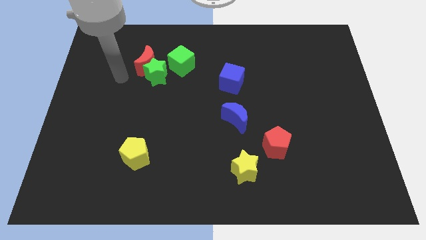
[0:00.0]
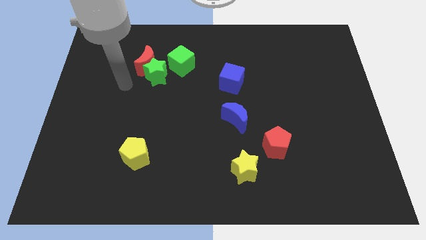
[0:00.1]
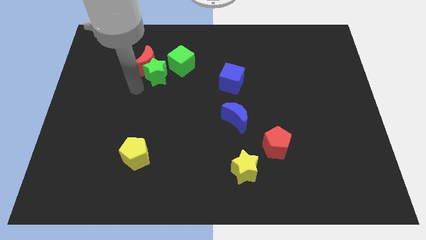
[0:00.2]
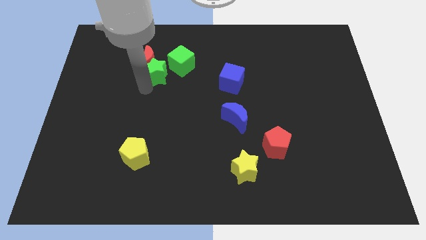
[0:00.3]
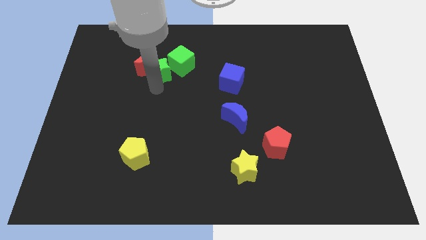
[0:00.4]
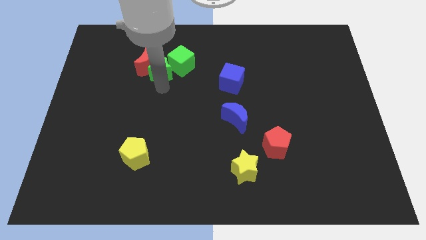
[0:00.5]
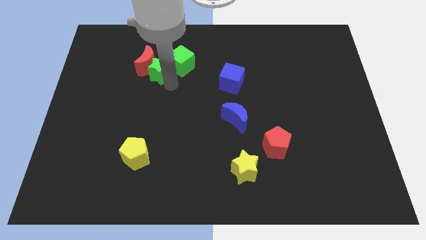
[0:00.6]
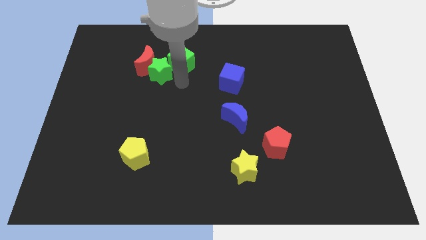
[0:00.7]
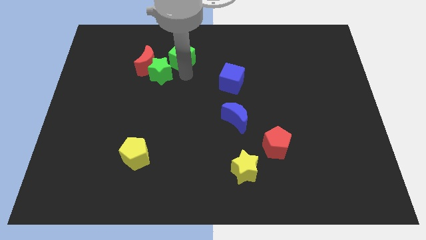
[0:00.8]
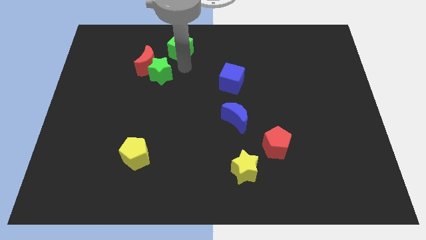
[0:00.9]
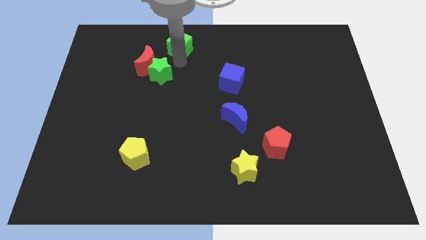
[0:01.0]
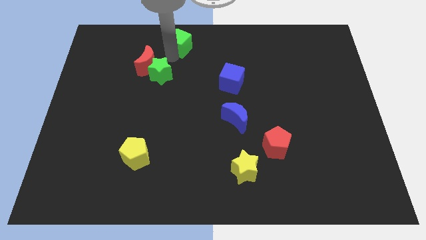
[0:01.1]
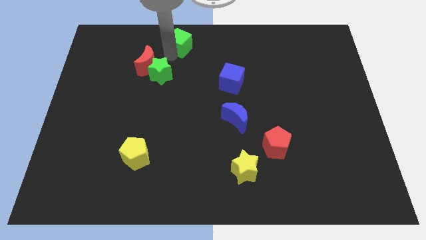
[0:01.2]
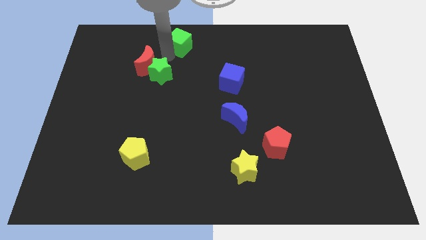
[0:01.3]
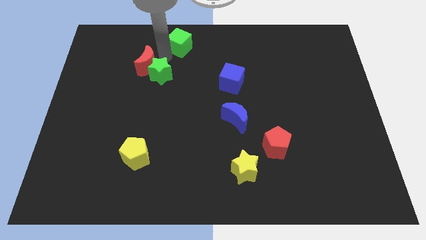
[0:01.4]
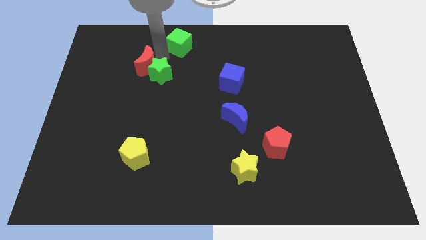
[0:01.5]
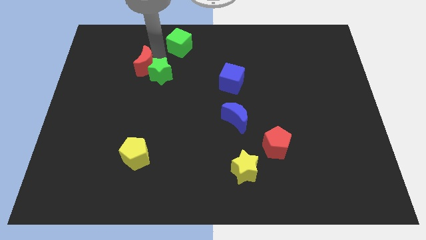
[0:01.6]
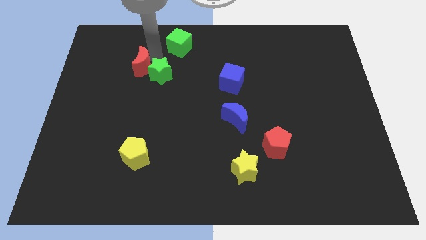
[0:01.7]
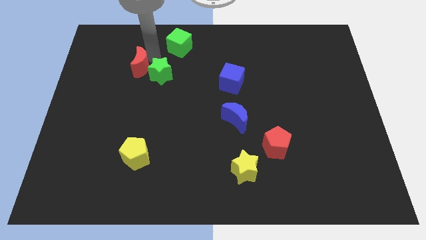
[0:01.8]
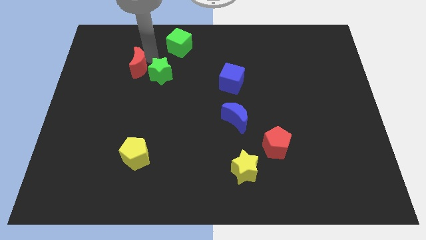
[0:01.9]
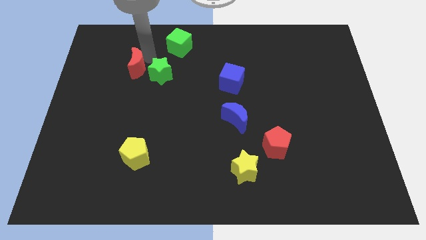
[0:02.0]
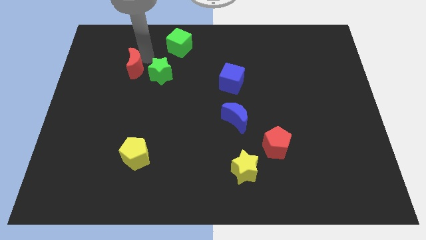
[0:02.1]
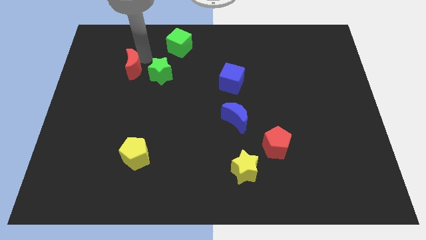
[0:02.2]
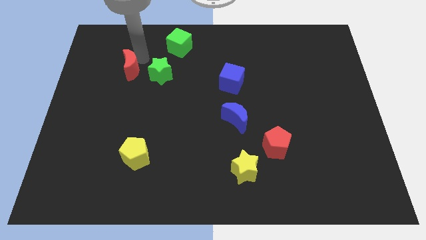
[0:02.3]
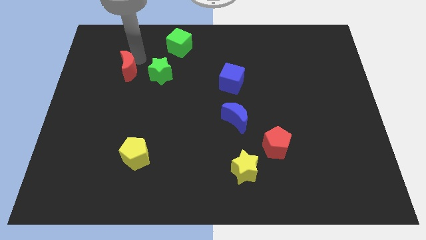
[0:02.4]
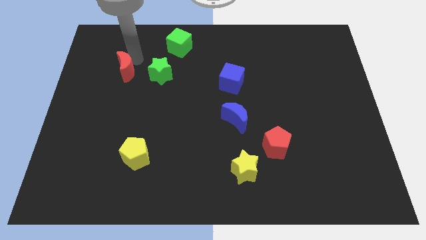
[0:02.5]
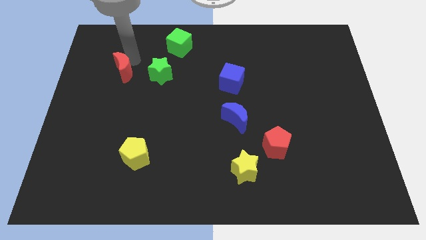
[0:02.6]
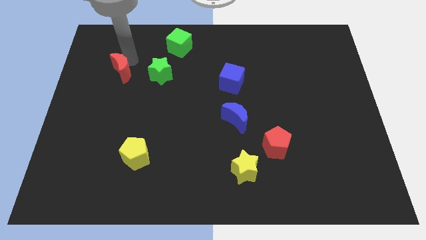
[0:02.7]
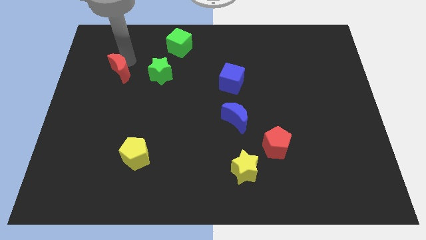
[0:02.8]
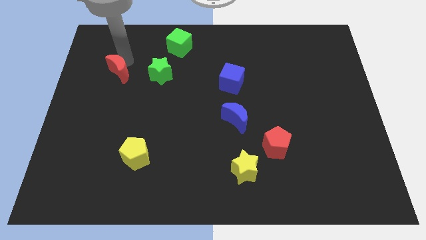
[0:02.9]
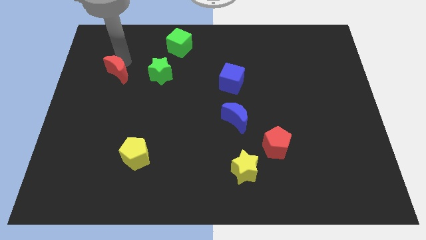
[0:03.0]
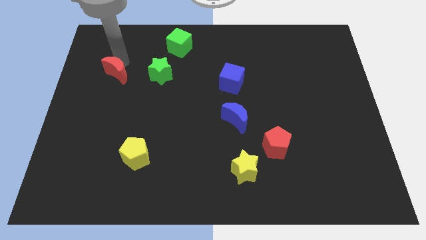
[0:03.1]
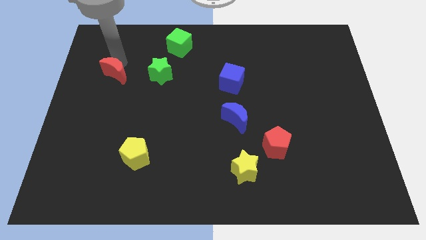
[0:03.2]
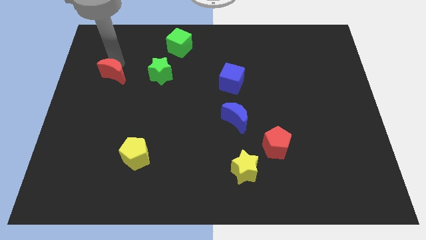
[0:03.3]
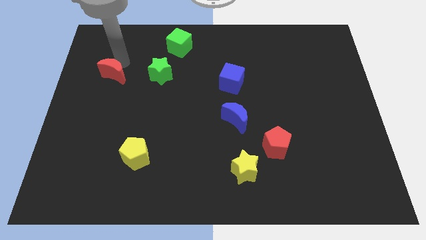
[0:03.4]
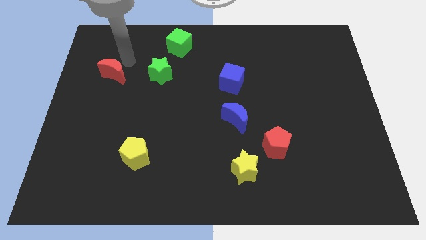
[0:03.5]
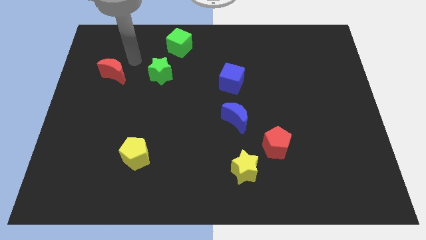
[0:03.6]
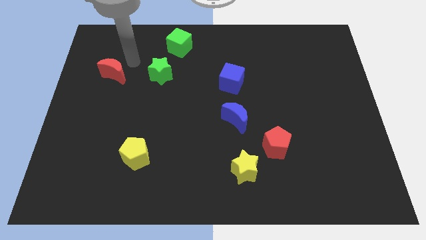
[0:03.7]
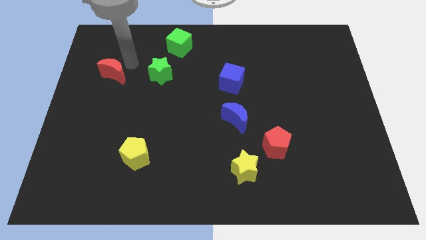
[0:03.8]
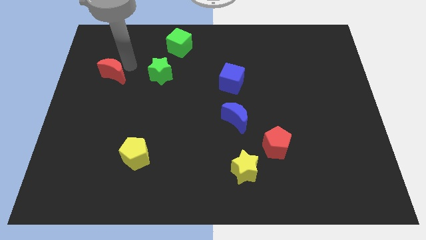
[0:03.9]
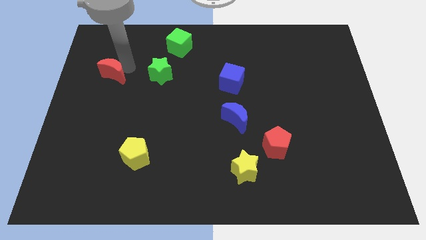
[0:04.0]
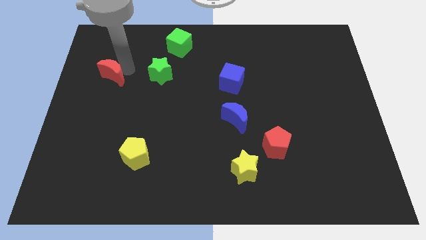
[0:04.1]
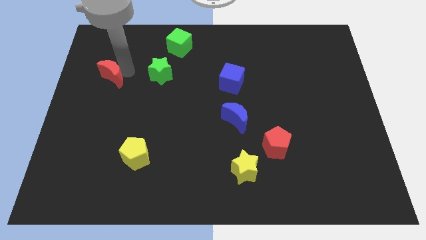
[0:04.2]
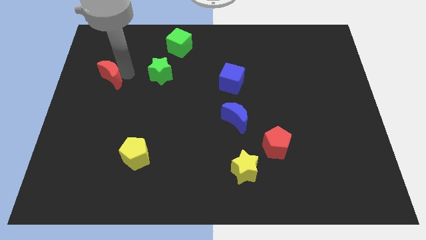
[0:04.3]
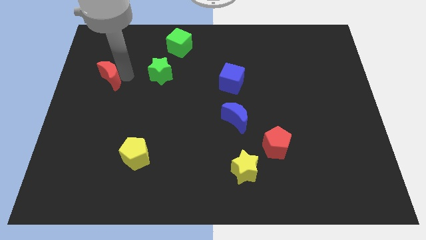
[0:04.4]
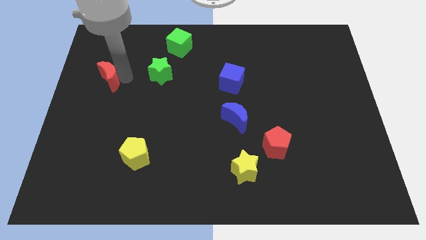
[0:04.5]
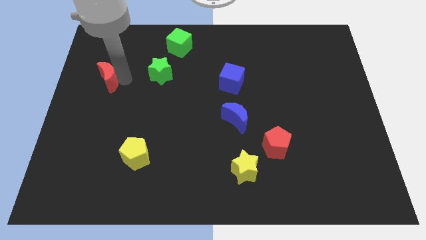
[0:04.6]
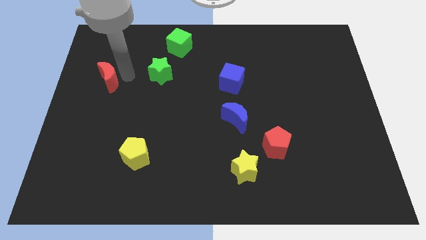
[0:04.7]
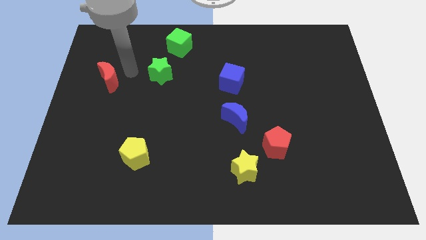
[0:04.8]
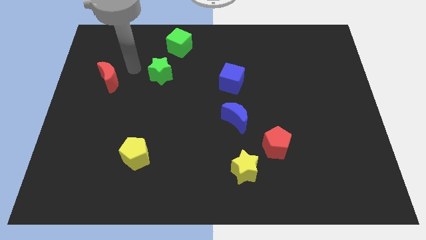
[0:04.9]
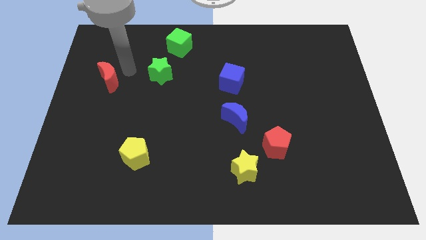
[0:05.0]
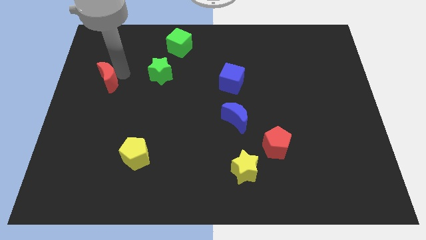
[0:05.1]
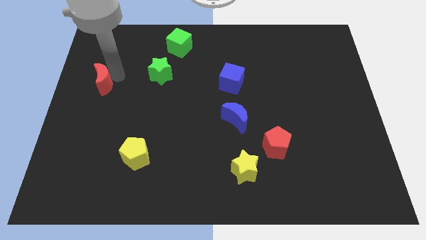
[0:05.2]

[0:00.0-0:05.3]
put the red moon to the center left

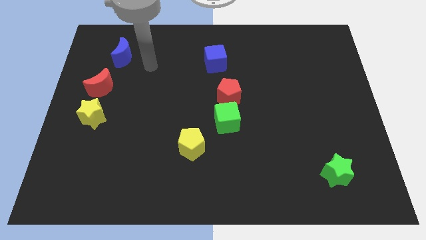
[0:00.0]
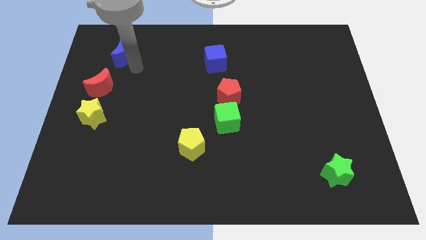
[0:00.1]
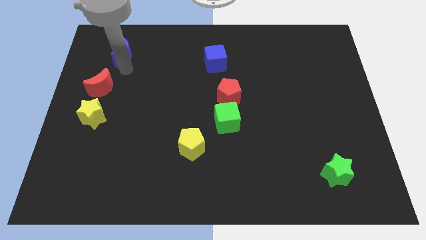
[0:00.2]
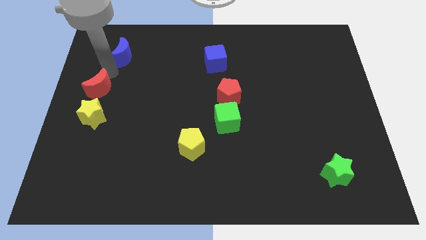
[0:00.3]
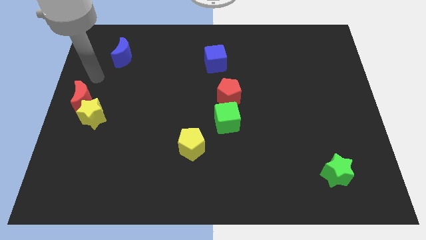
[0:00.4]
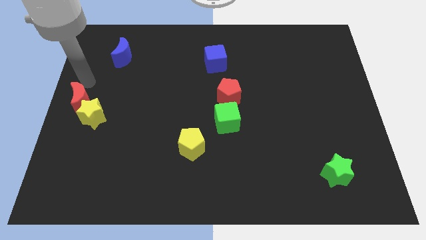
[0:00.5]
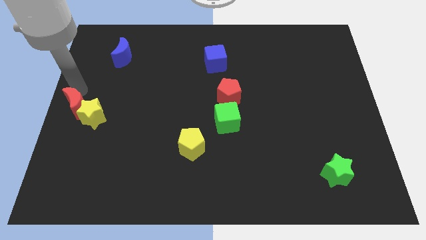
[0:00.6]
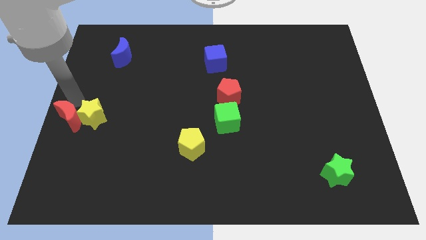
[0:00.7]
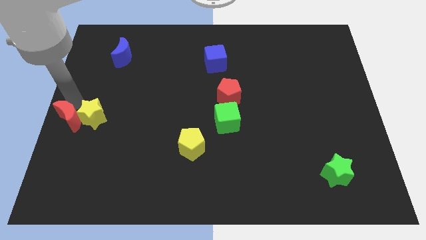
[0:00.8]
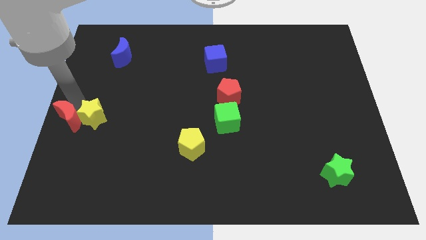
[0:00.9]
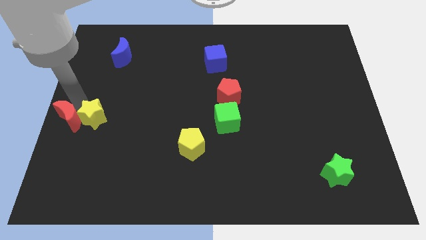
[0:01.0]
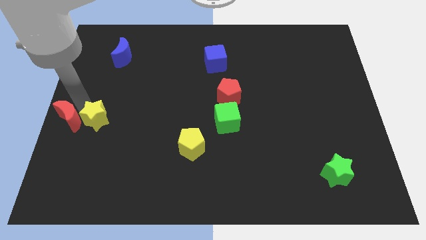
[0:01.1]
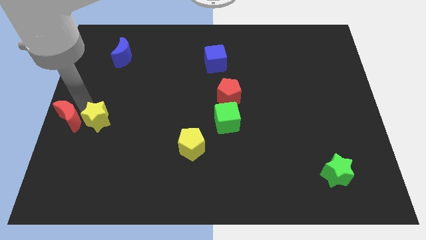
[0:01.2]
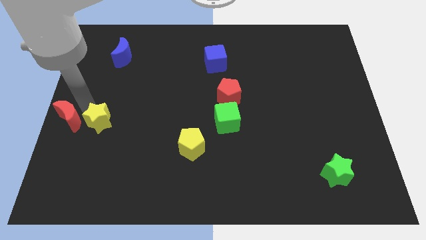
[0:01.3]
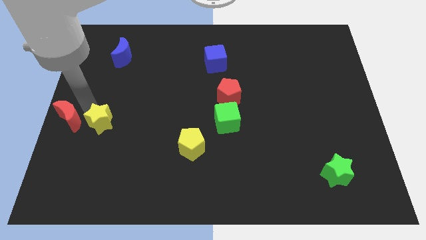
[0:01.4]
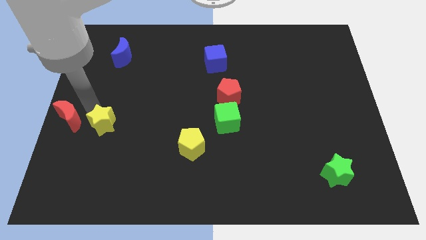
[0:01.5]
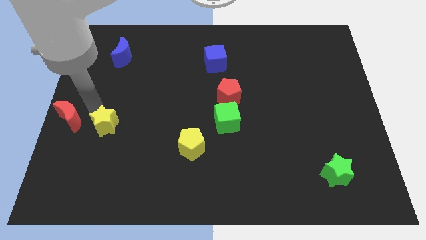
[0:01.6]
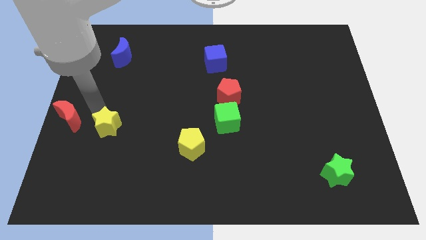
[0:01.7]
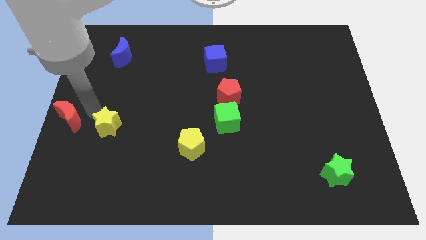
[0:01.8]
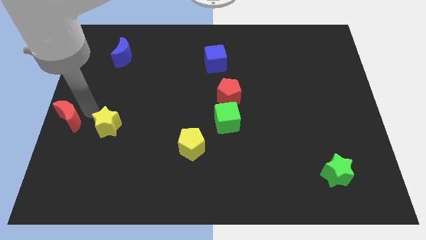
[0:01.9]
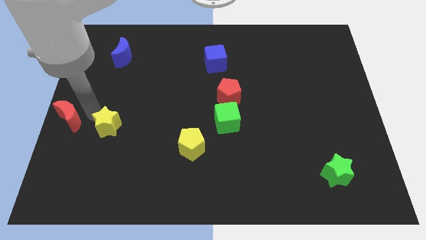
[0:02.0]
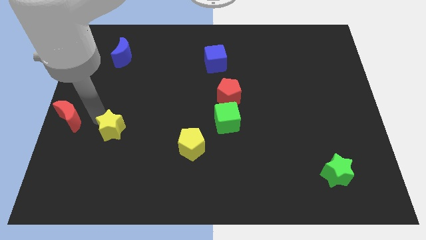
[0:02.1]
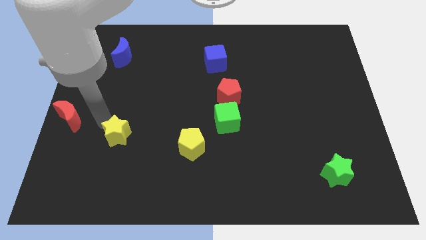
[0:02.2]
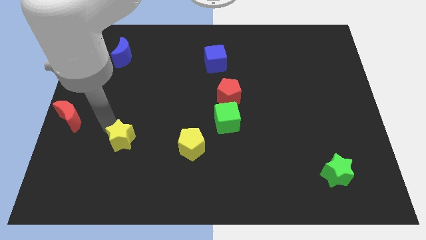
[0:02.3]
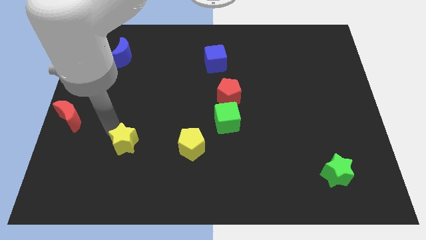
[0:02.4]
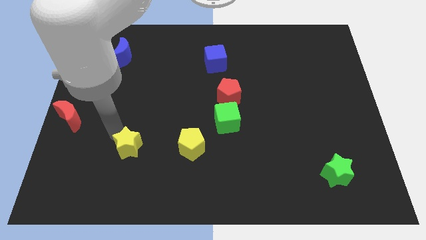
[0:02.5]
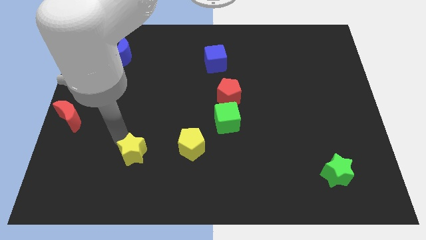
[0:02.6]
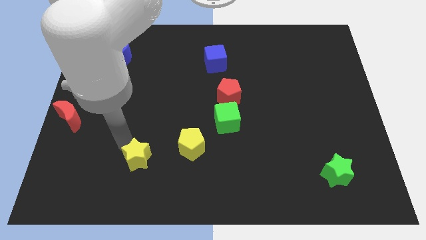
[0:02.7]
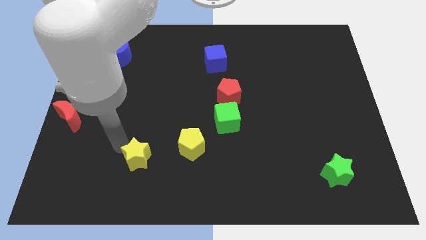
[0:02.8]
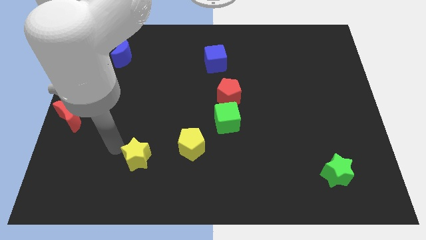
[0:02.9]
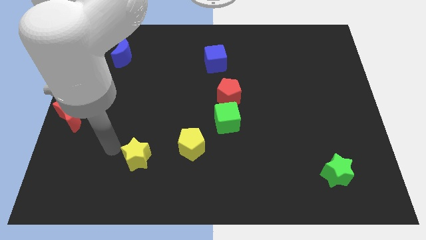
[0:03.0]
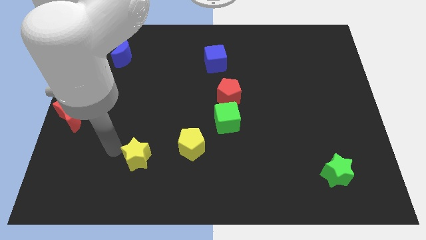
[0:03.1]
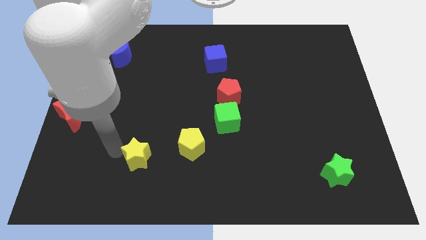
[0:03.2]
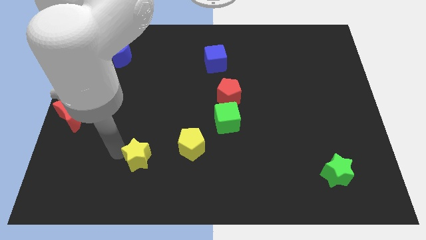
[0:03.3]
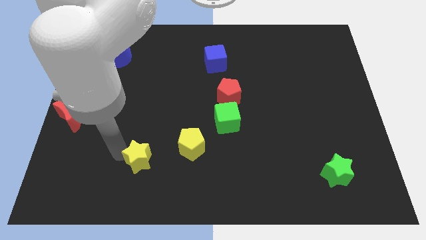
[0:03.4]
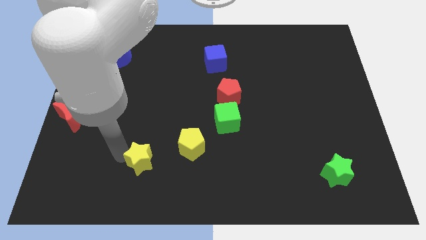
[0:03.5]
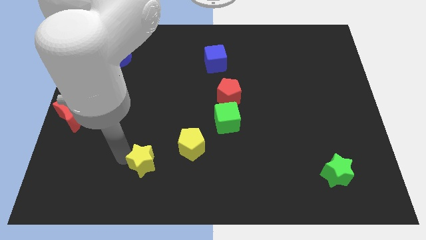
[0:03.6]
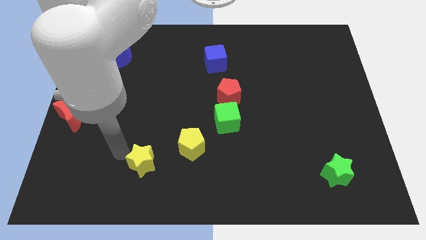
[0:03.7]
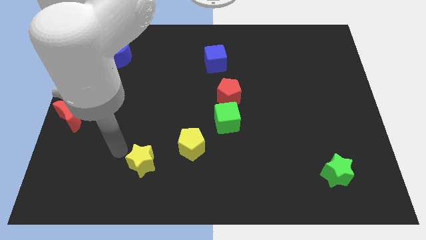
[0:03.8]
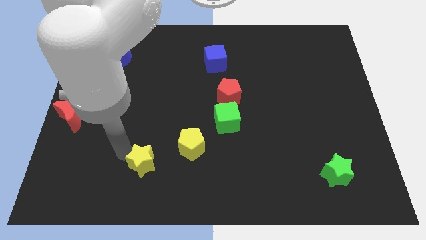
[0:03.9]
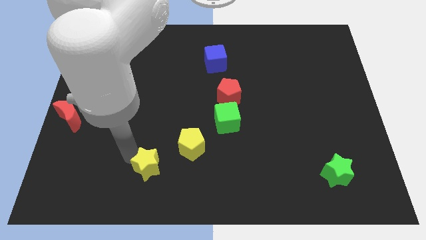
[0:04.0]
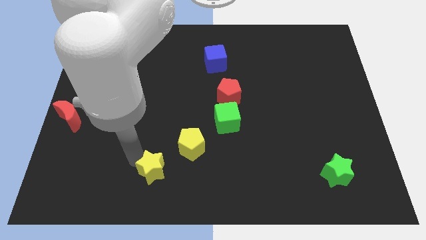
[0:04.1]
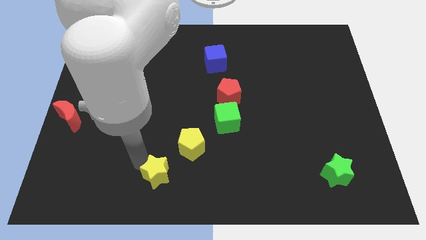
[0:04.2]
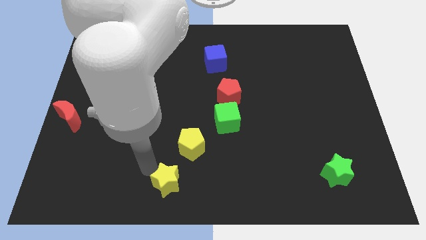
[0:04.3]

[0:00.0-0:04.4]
put the yellow star to the bottom side
